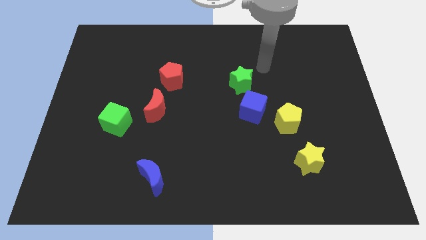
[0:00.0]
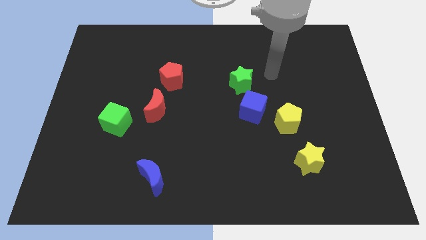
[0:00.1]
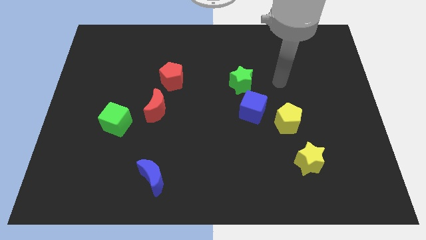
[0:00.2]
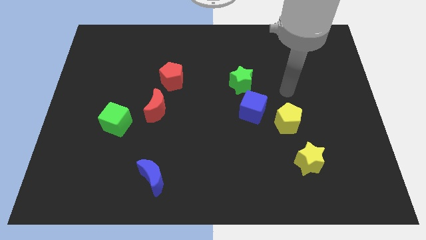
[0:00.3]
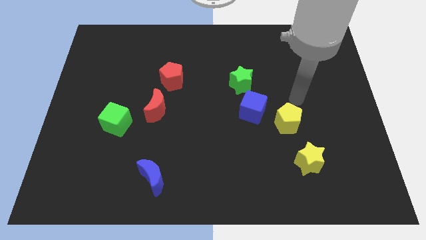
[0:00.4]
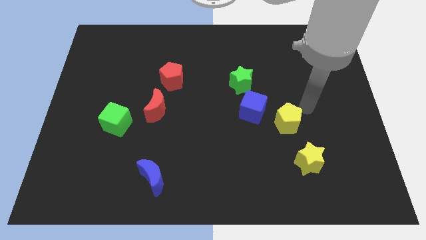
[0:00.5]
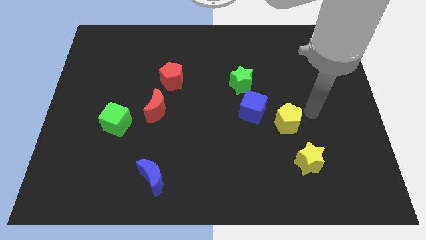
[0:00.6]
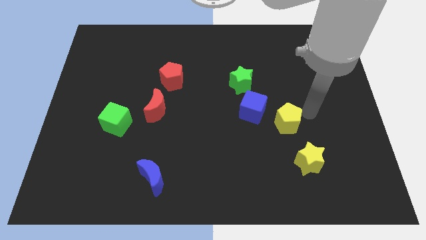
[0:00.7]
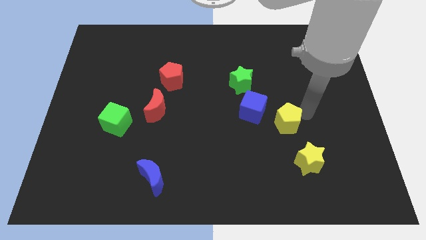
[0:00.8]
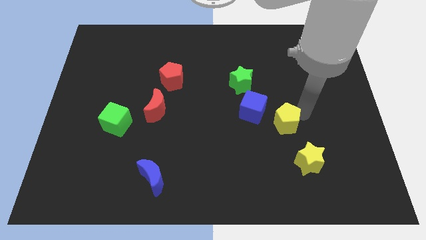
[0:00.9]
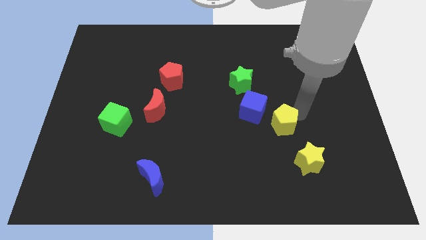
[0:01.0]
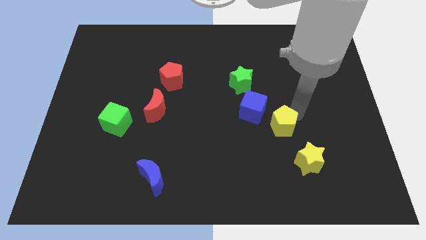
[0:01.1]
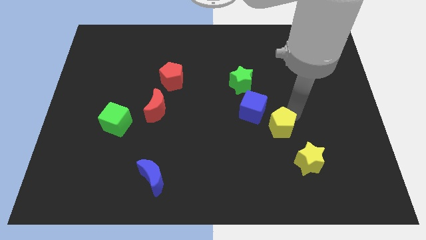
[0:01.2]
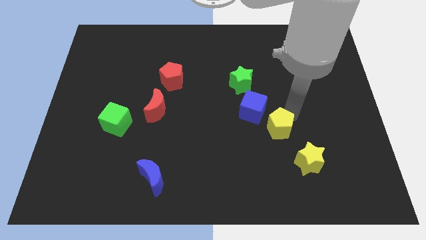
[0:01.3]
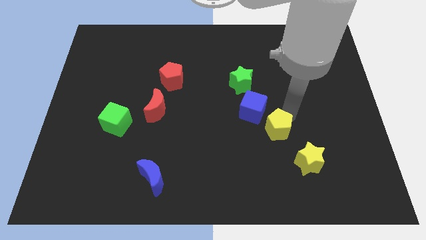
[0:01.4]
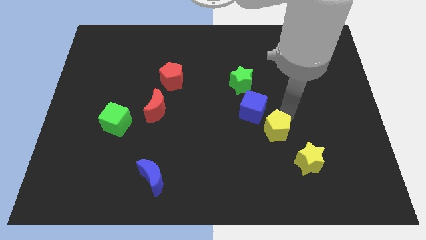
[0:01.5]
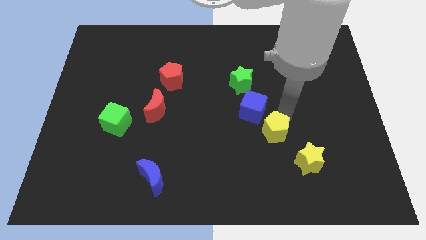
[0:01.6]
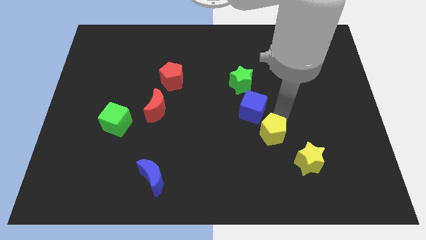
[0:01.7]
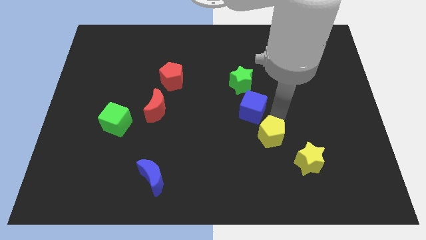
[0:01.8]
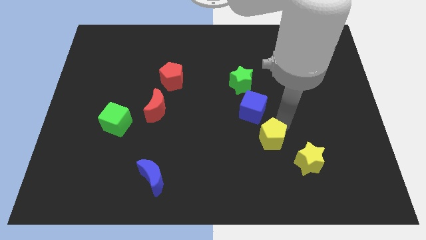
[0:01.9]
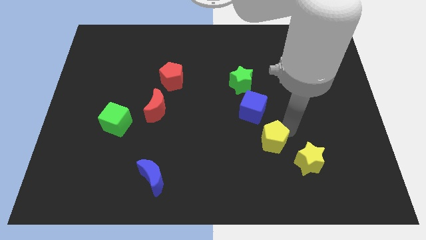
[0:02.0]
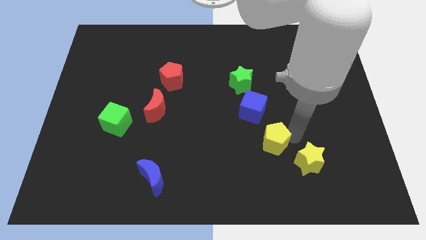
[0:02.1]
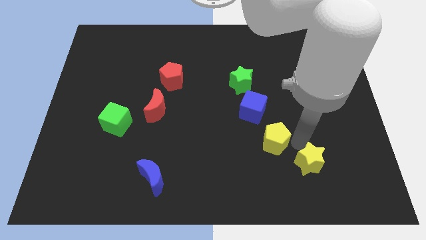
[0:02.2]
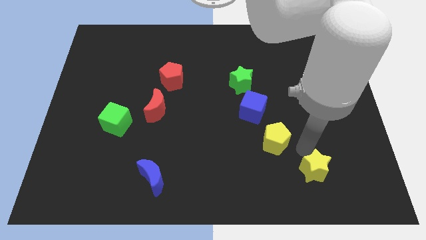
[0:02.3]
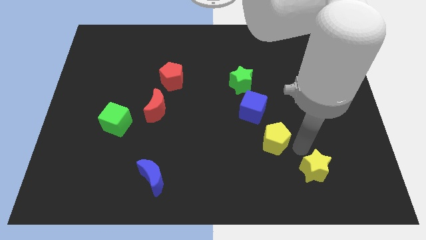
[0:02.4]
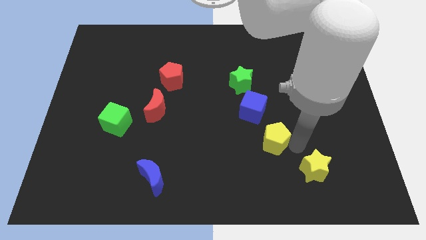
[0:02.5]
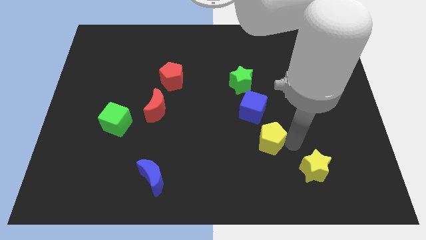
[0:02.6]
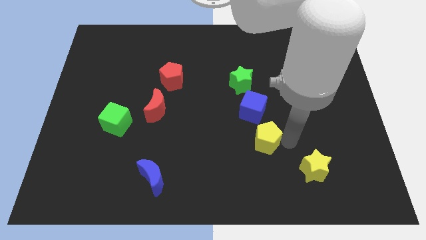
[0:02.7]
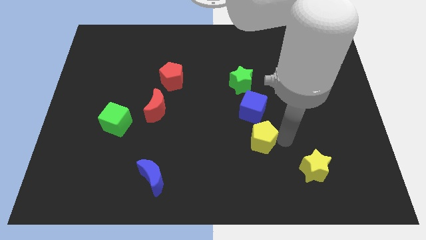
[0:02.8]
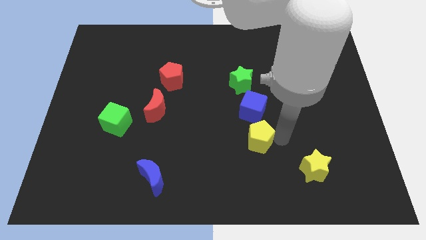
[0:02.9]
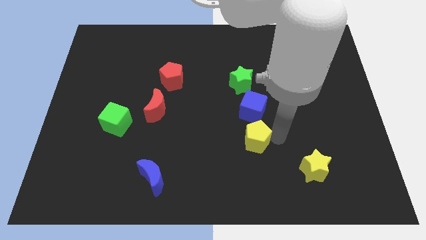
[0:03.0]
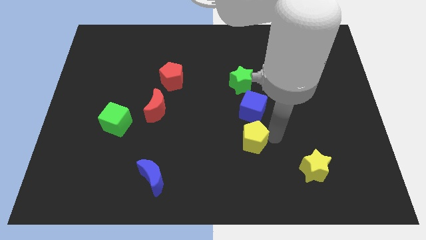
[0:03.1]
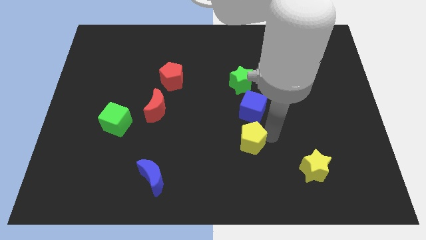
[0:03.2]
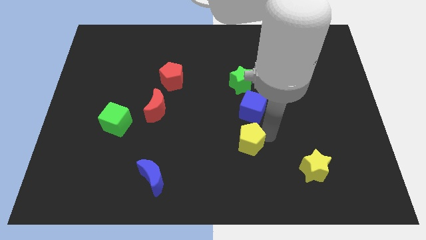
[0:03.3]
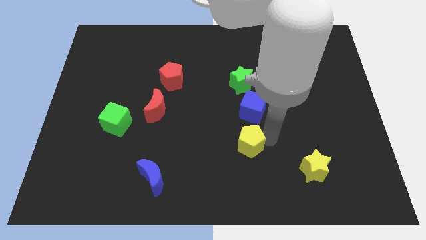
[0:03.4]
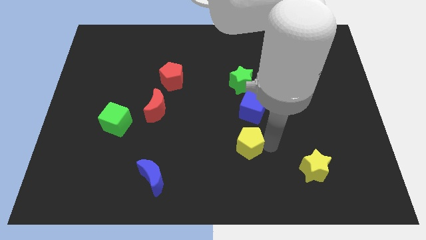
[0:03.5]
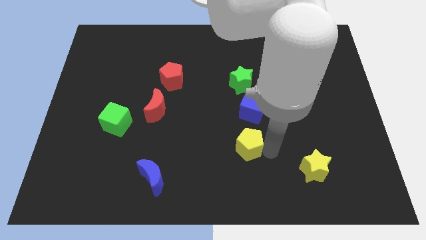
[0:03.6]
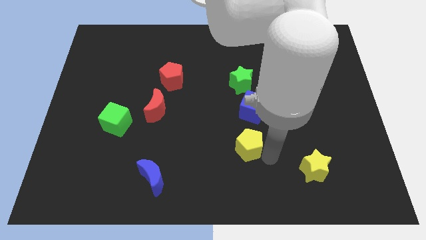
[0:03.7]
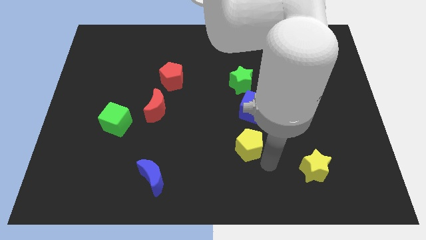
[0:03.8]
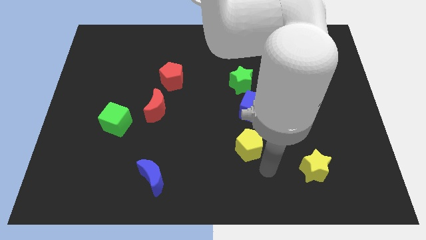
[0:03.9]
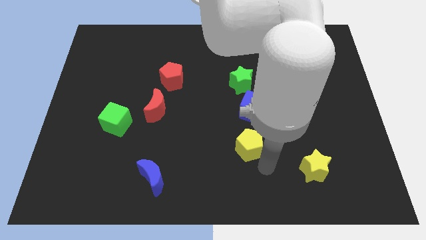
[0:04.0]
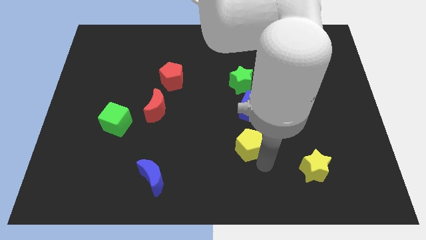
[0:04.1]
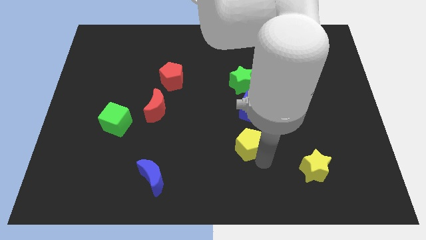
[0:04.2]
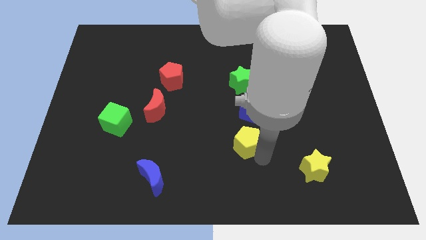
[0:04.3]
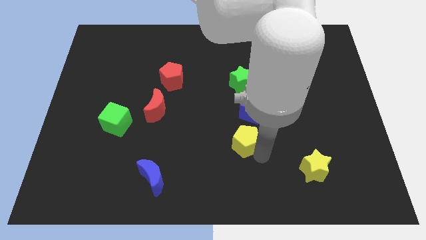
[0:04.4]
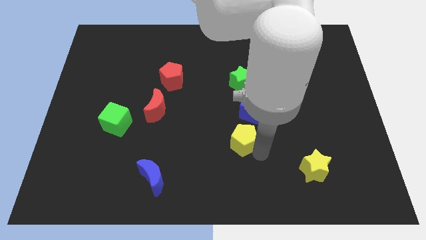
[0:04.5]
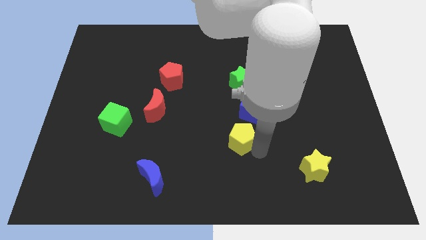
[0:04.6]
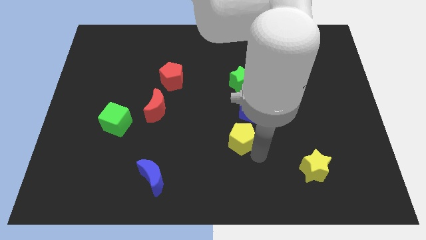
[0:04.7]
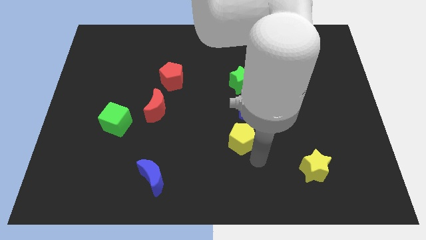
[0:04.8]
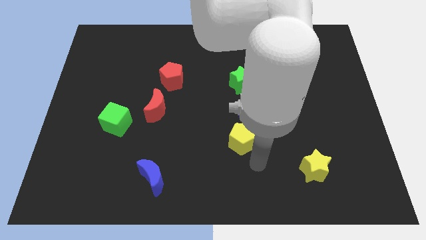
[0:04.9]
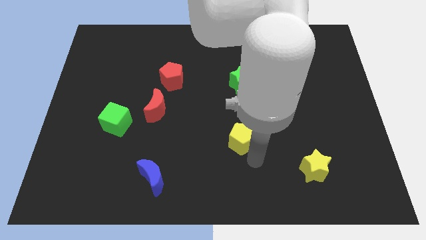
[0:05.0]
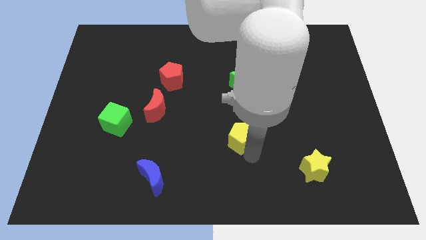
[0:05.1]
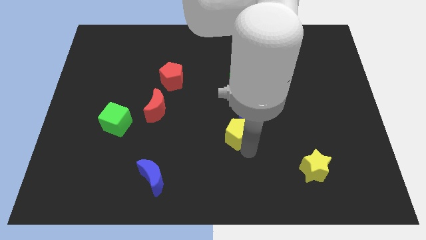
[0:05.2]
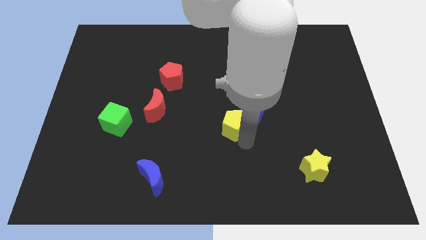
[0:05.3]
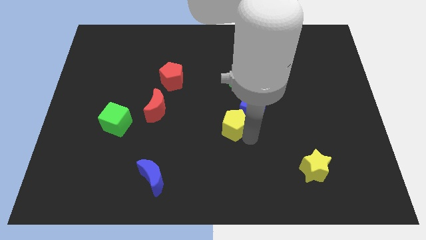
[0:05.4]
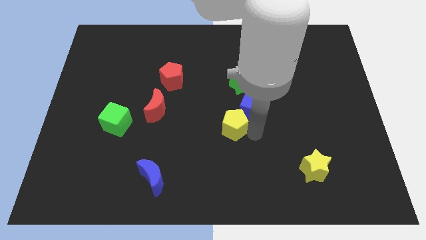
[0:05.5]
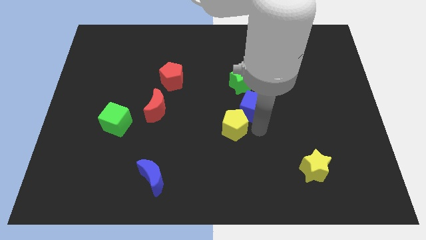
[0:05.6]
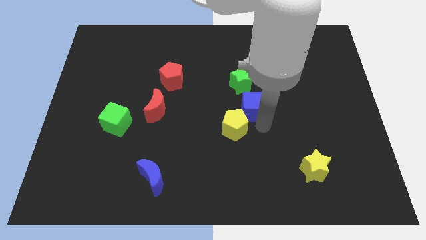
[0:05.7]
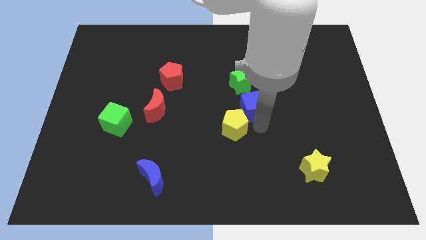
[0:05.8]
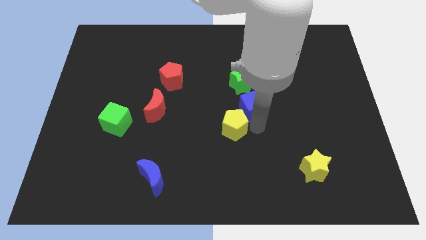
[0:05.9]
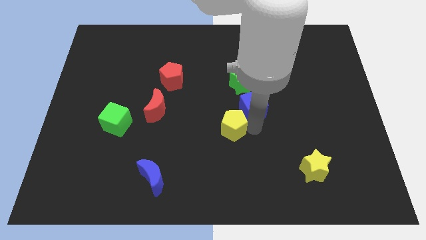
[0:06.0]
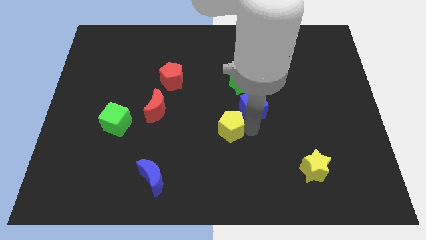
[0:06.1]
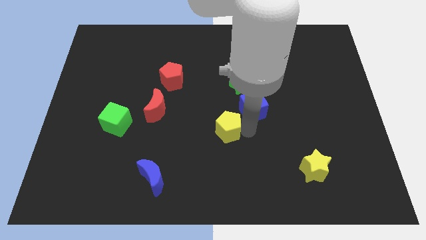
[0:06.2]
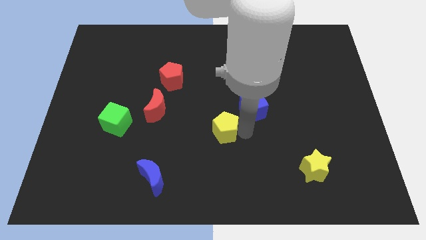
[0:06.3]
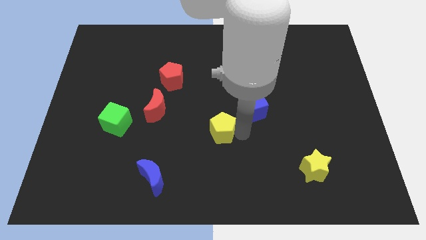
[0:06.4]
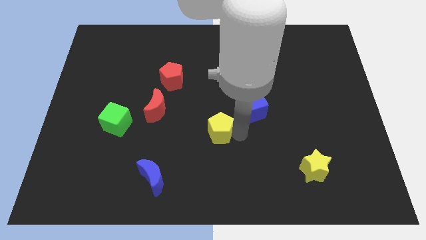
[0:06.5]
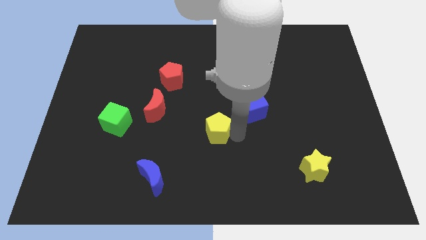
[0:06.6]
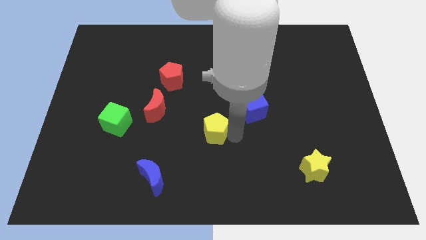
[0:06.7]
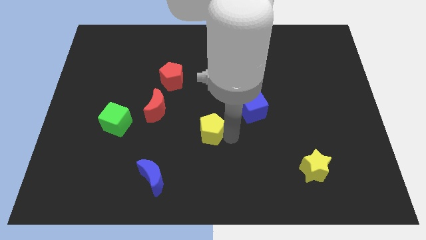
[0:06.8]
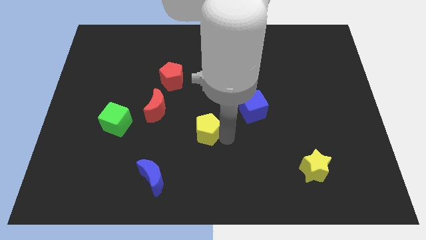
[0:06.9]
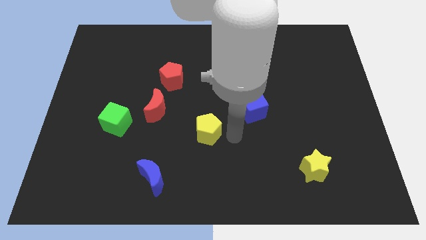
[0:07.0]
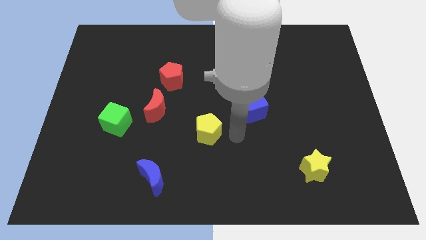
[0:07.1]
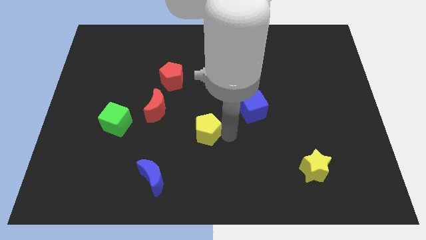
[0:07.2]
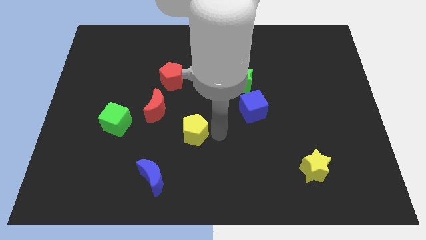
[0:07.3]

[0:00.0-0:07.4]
push the yellow pentagon left

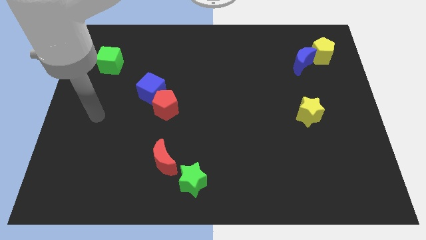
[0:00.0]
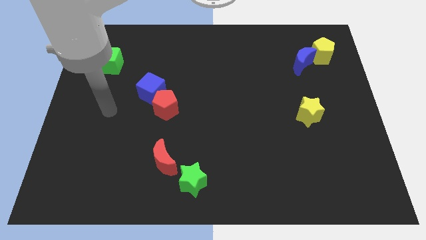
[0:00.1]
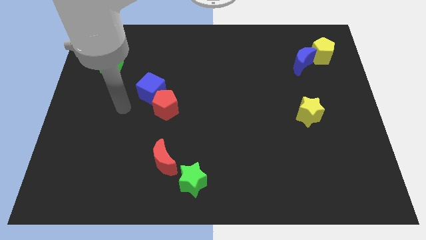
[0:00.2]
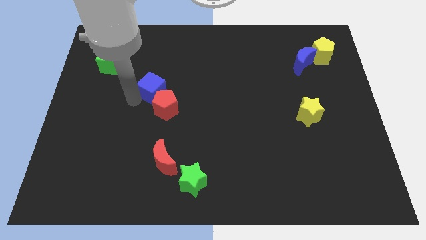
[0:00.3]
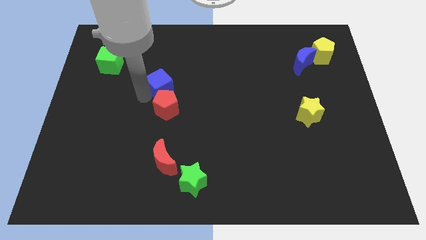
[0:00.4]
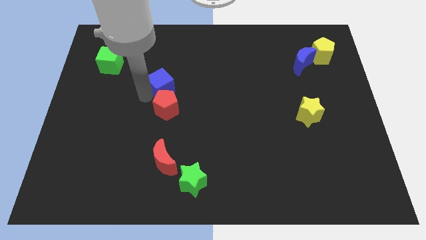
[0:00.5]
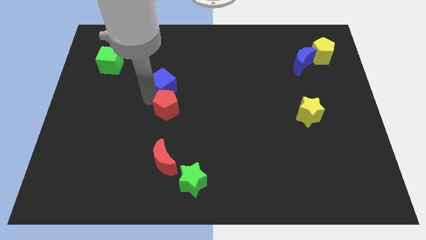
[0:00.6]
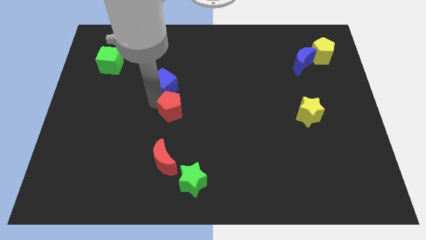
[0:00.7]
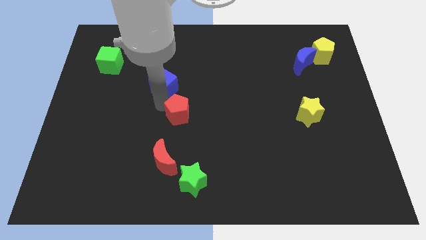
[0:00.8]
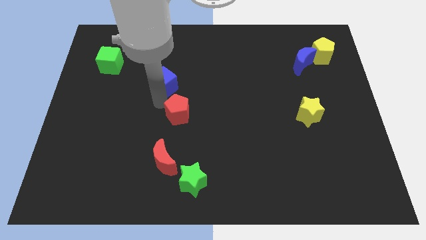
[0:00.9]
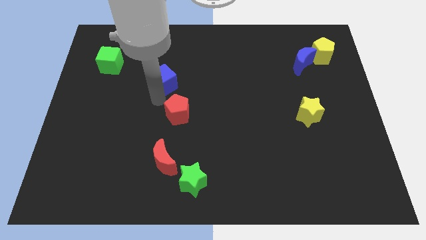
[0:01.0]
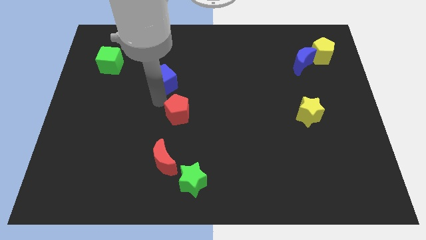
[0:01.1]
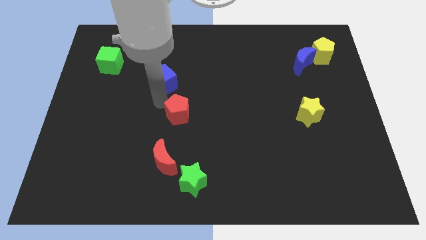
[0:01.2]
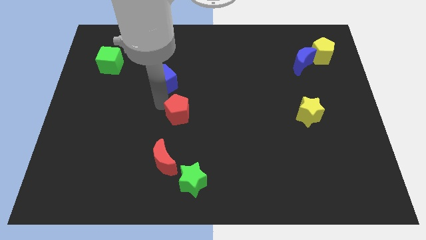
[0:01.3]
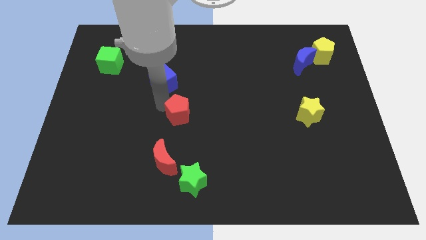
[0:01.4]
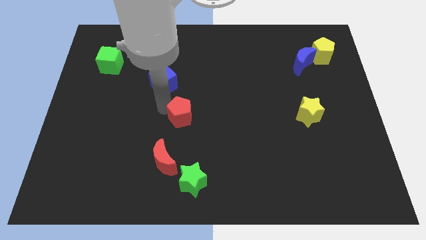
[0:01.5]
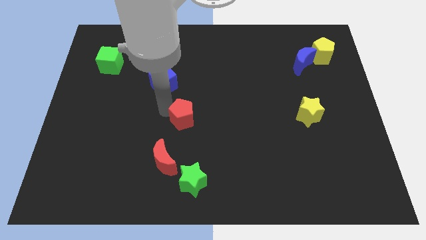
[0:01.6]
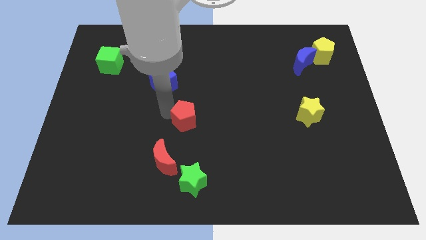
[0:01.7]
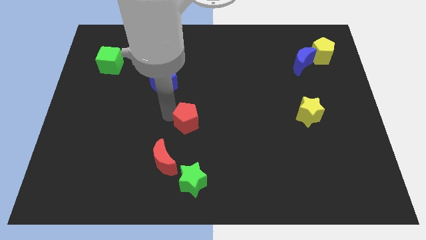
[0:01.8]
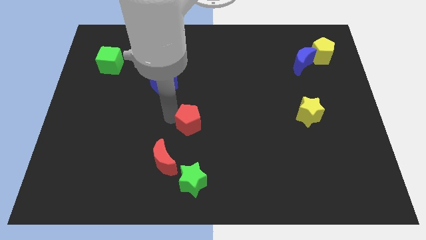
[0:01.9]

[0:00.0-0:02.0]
slide the red pentagon a little bit diagonally down and right
